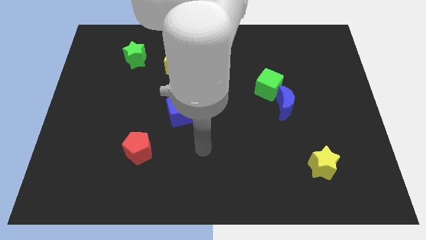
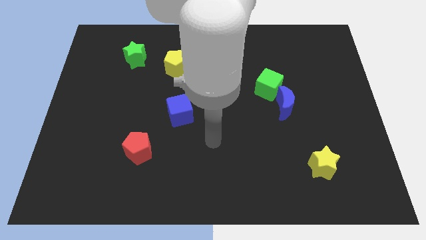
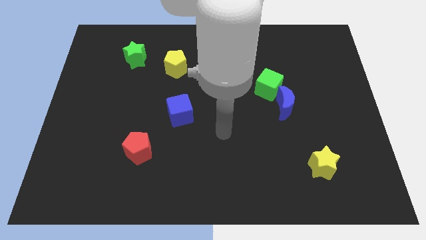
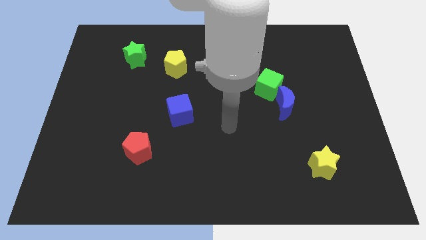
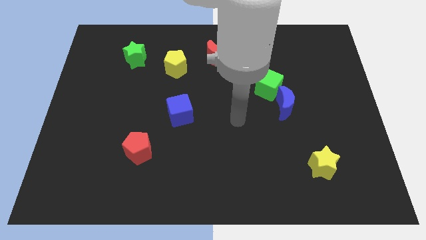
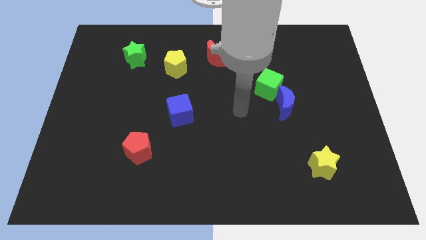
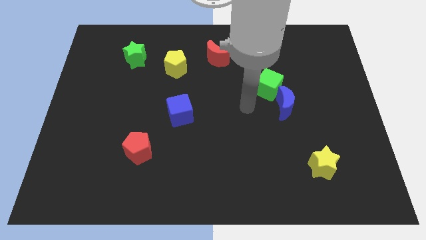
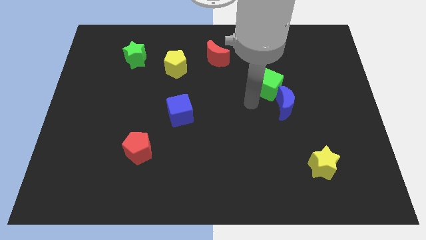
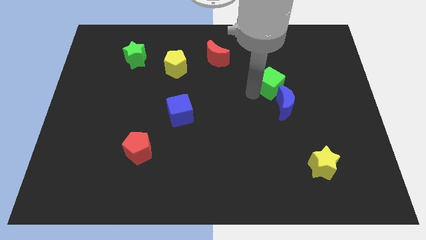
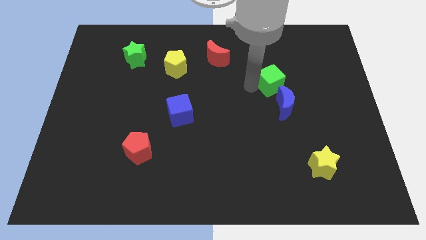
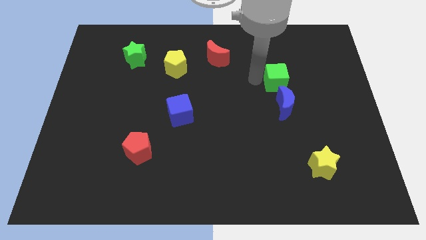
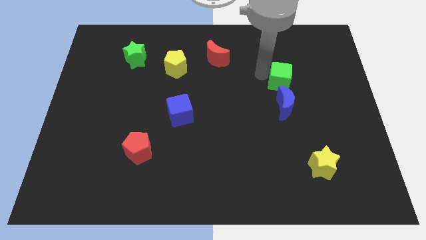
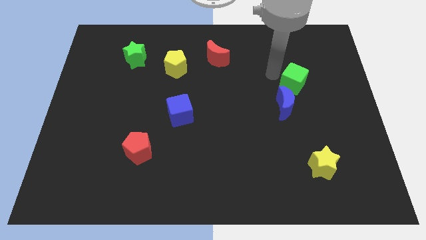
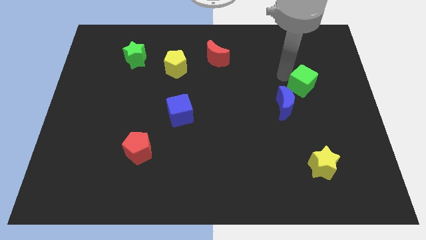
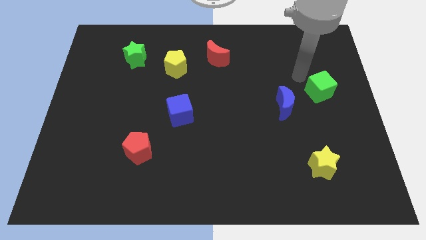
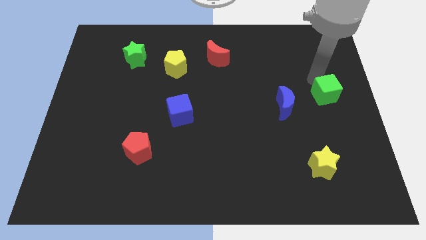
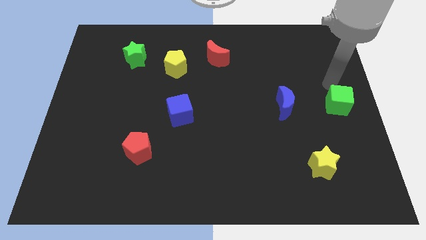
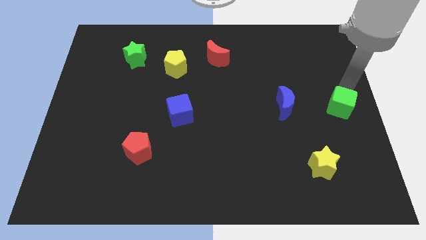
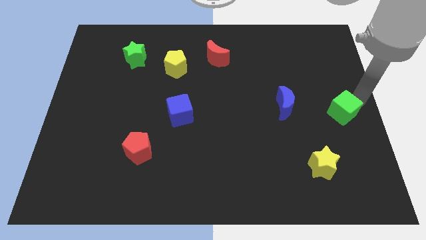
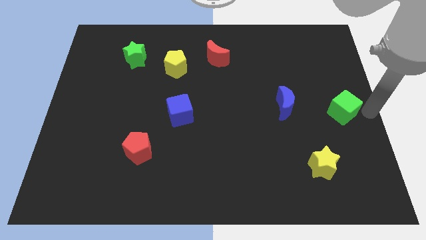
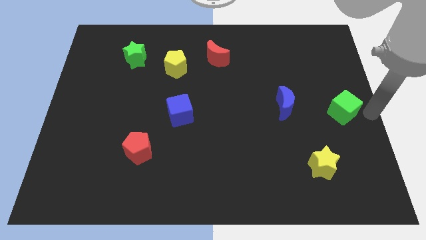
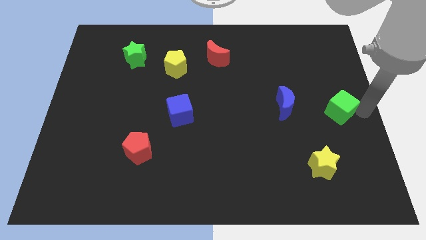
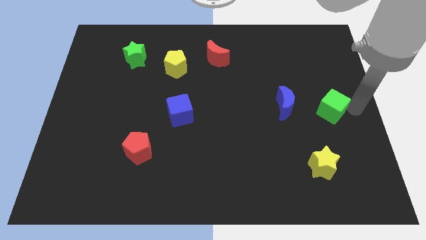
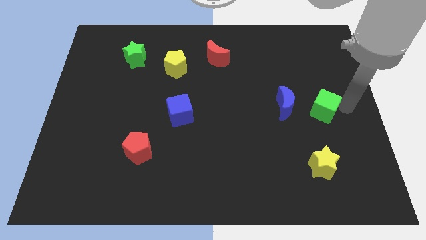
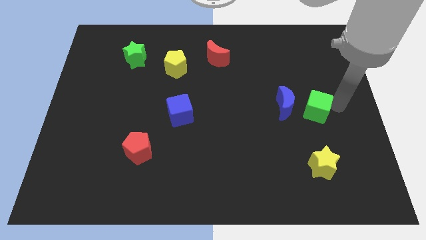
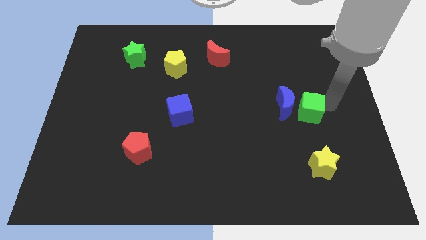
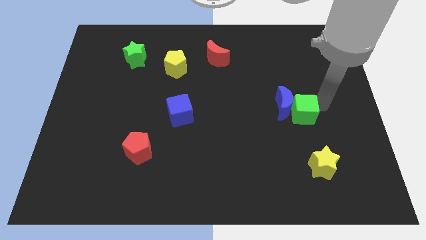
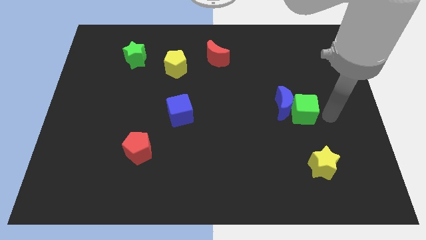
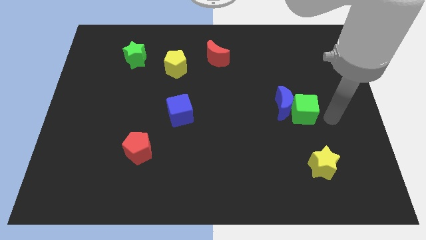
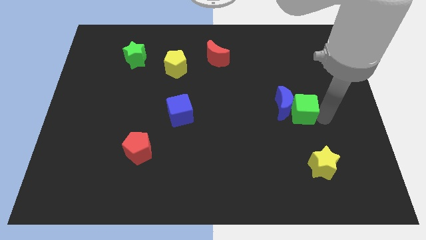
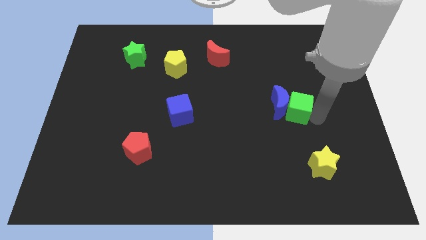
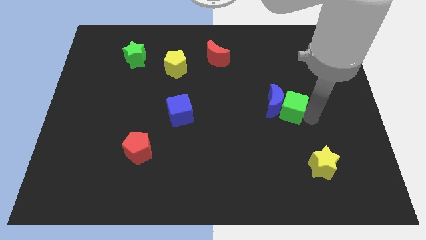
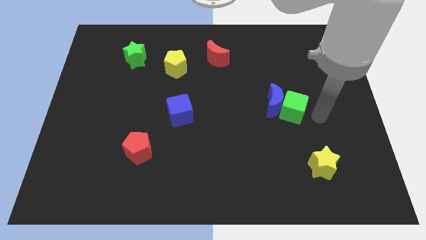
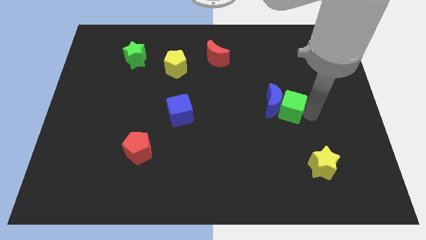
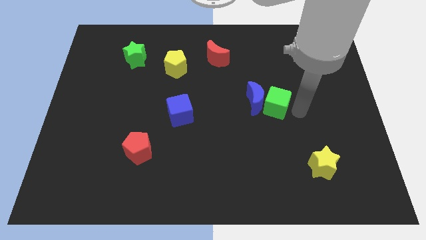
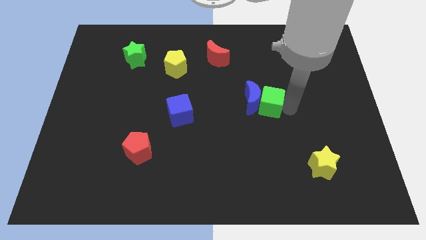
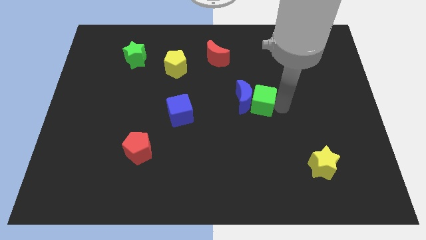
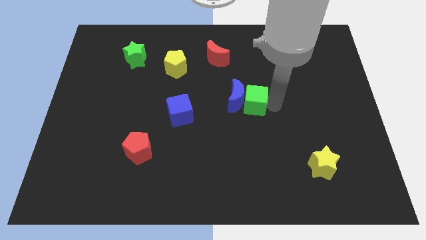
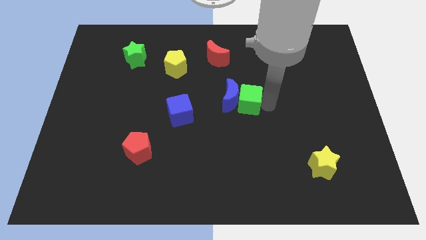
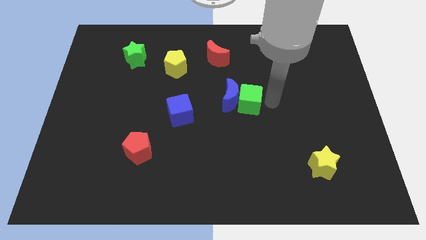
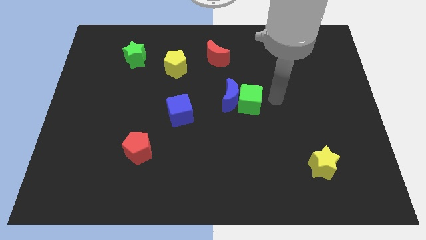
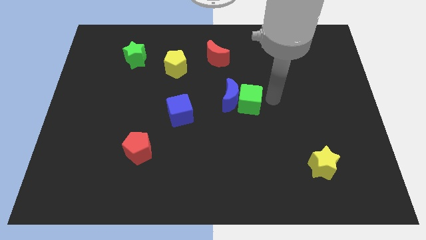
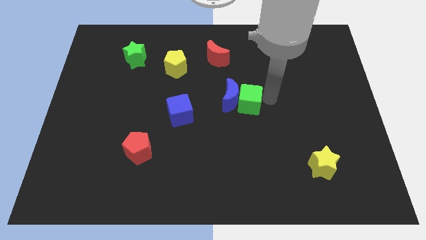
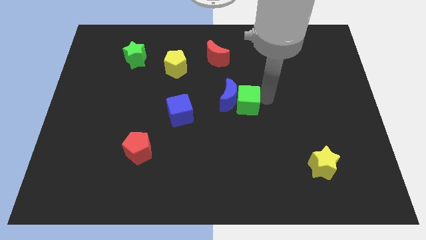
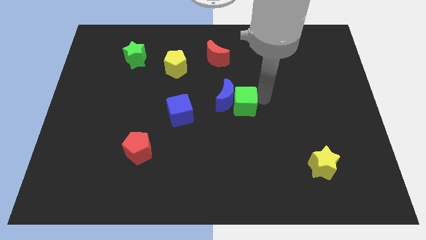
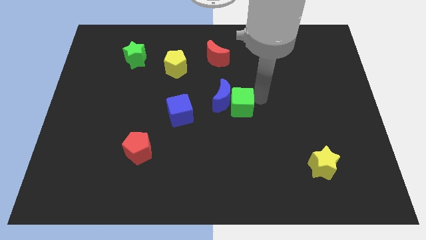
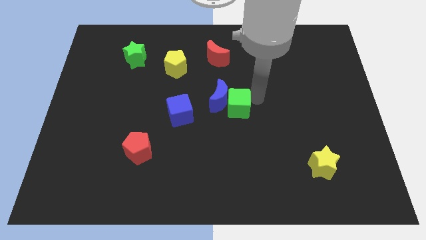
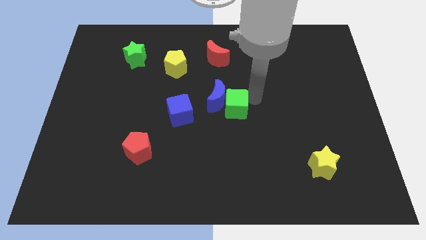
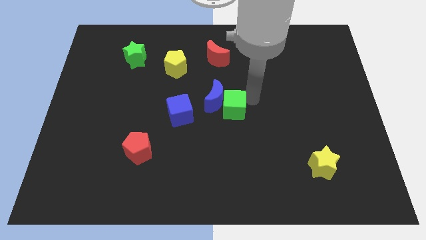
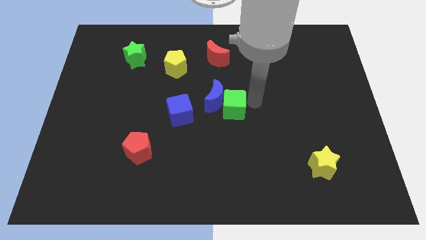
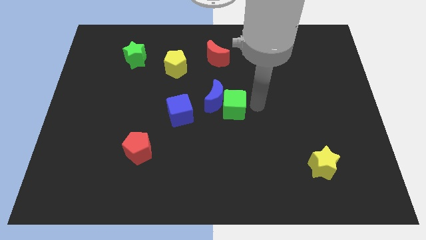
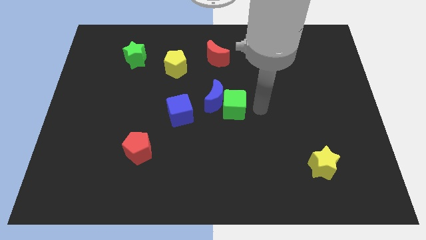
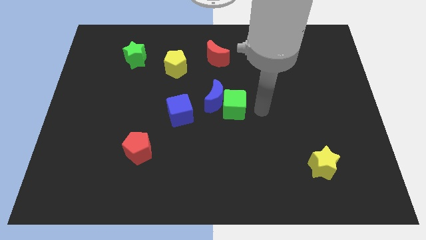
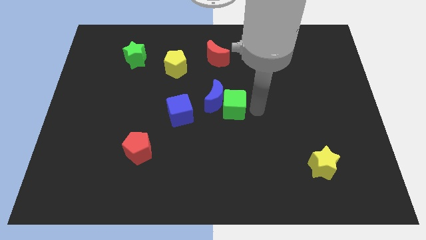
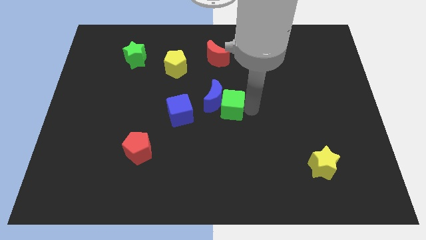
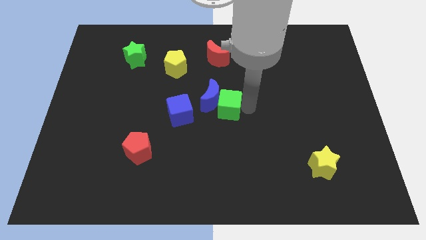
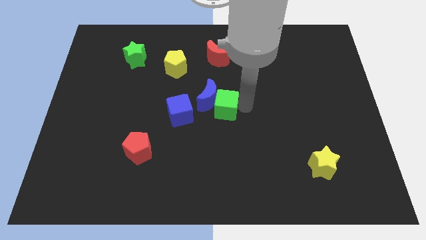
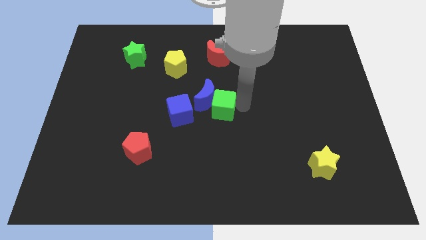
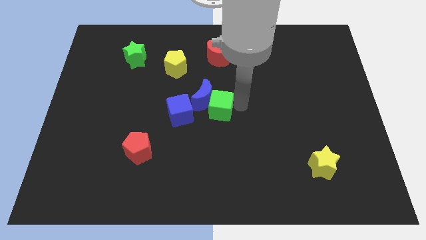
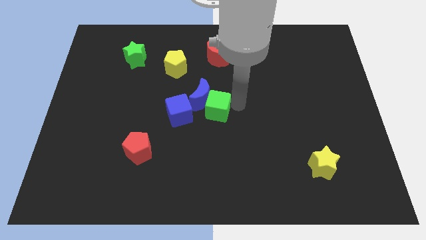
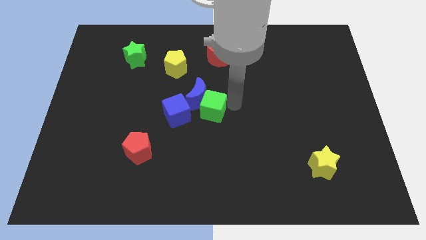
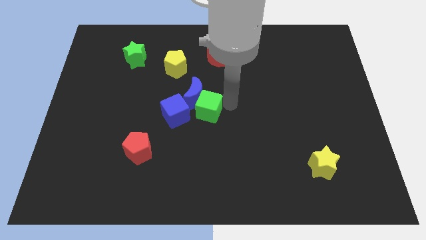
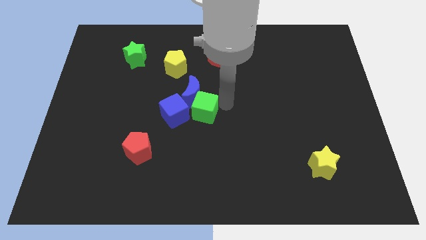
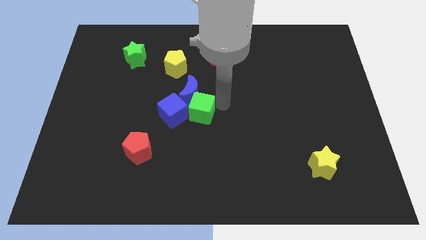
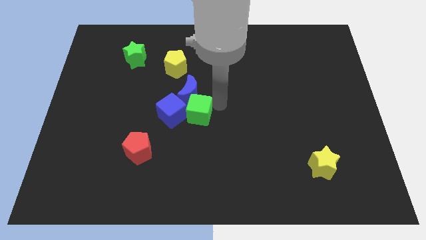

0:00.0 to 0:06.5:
slide the green cube to the blue cube

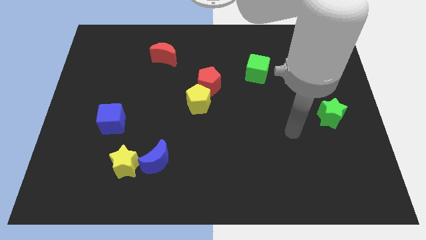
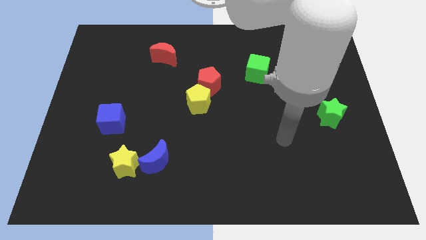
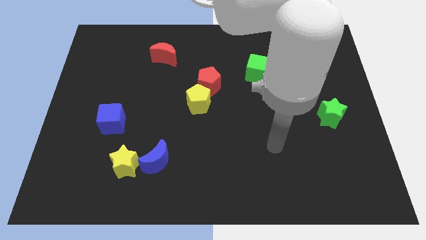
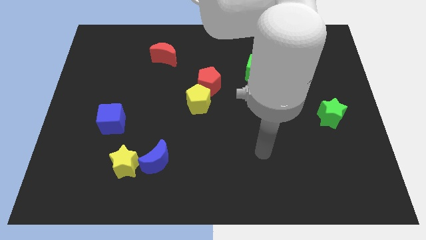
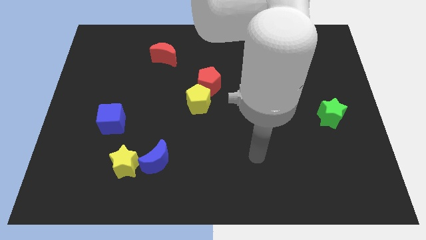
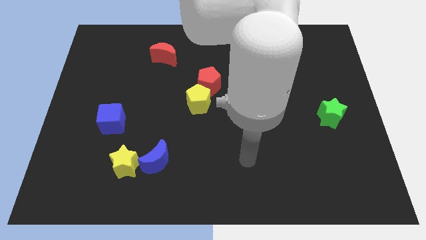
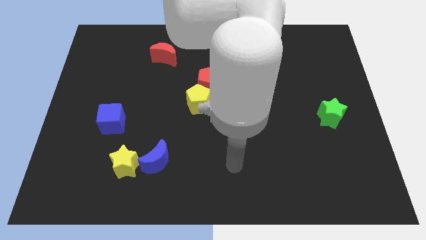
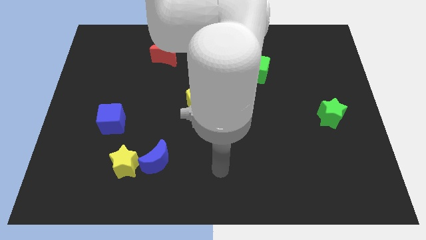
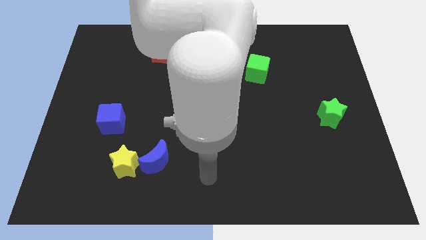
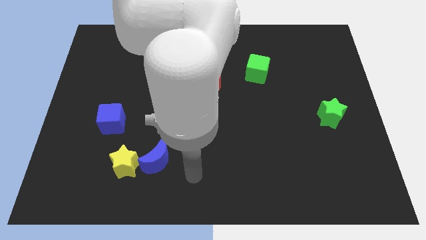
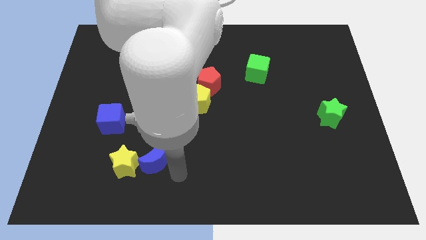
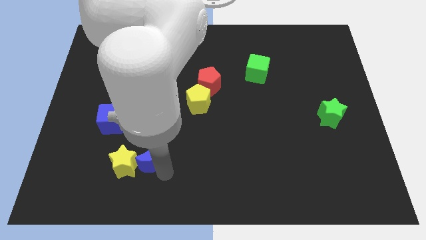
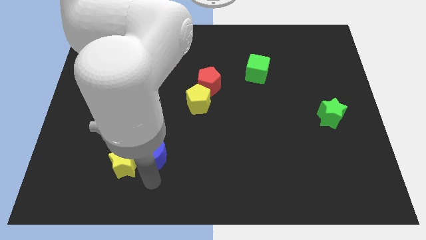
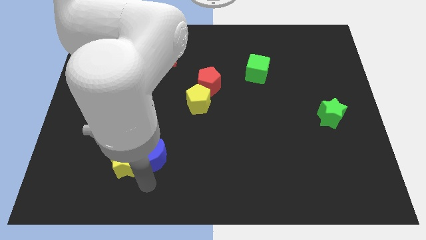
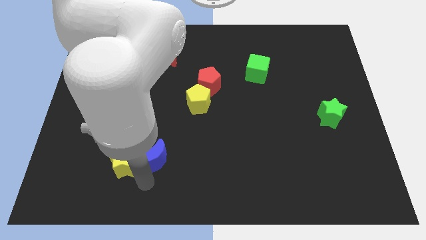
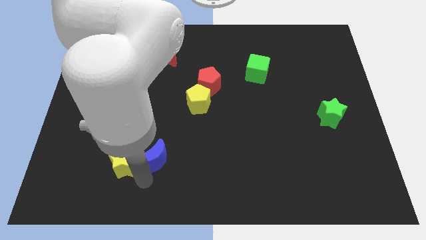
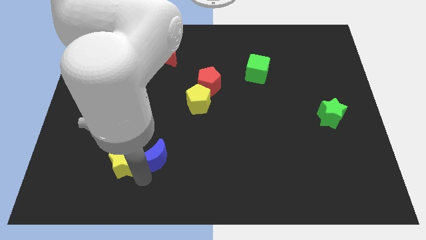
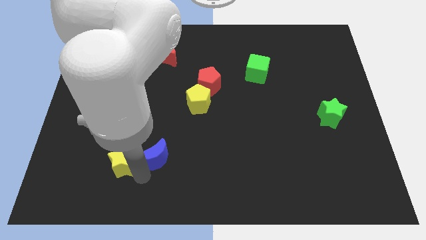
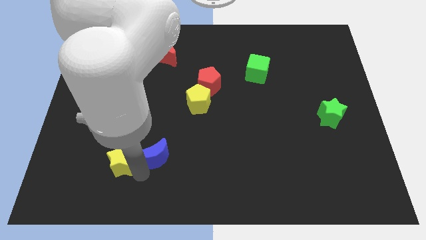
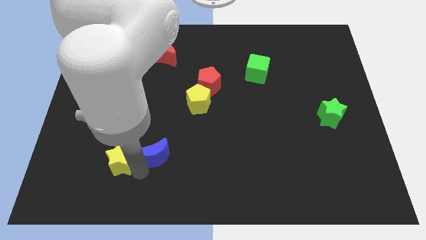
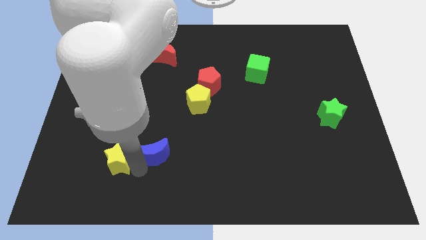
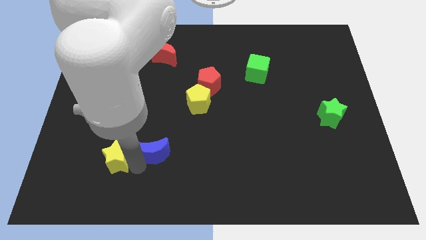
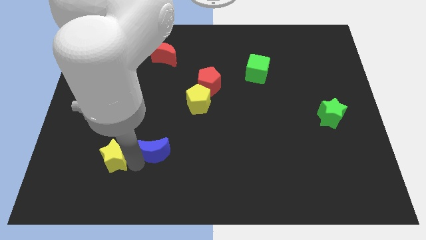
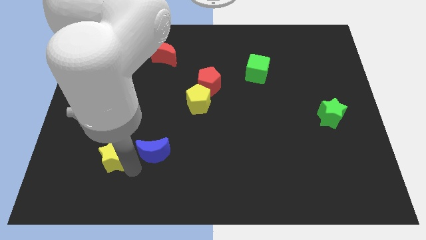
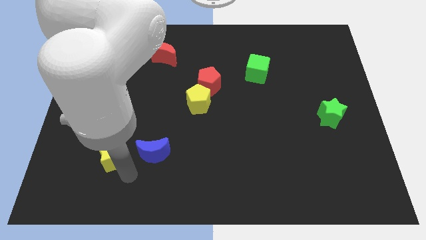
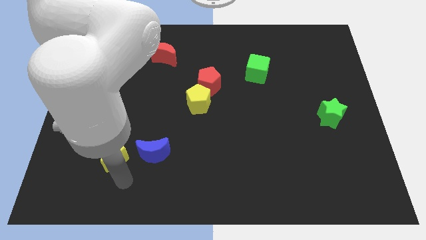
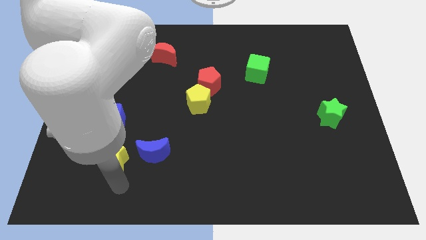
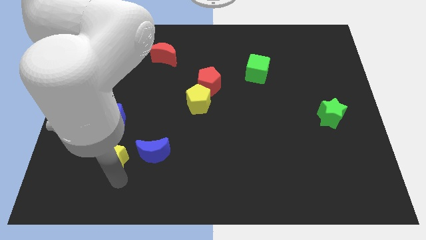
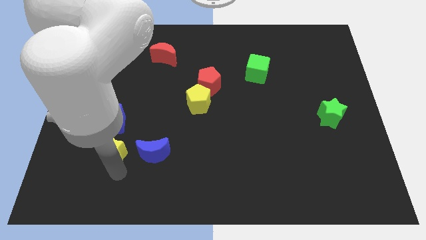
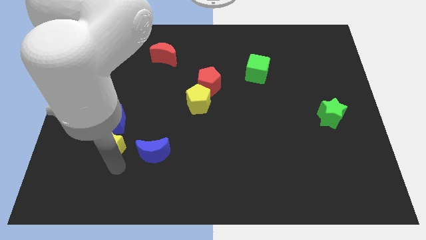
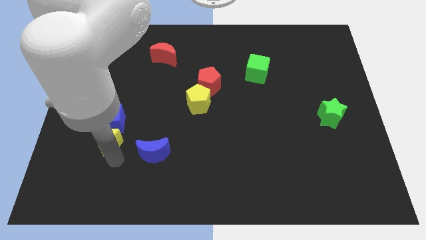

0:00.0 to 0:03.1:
slide the yellow star towards the blue cube
